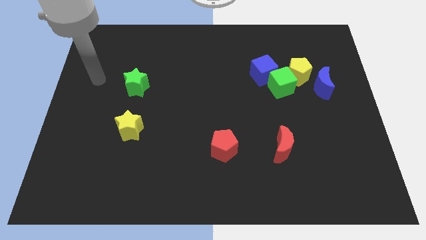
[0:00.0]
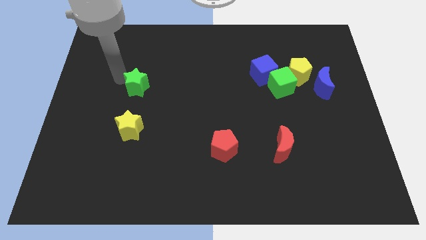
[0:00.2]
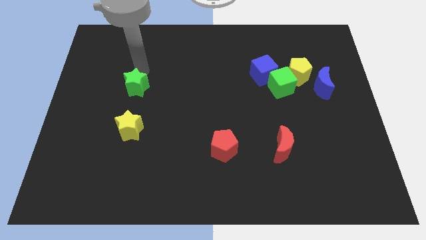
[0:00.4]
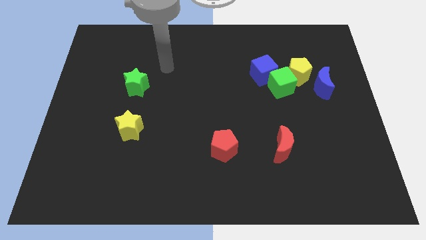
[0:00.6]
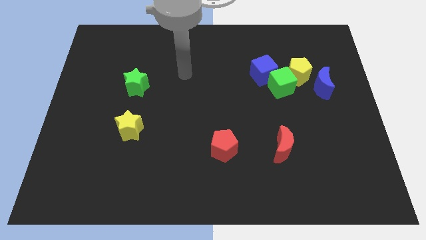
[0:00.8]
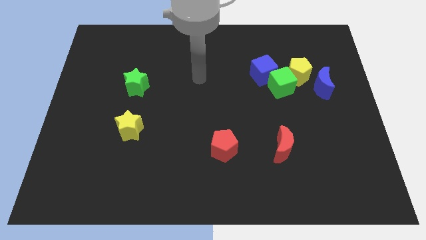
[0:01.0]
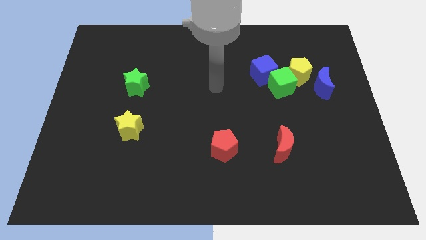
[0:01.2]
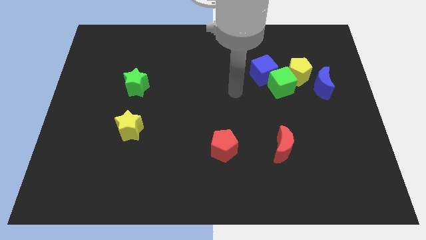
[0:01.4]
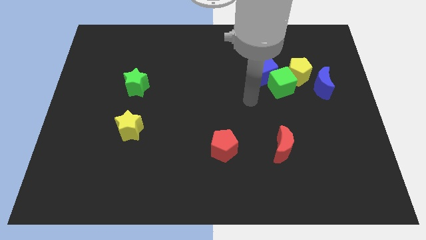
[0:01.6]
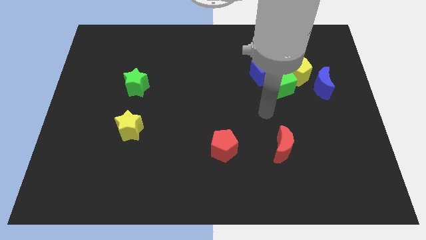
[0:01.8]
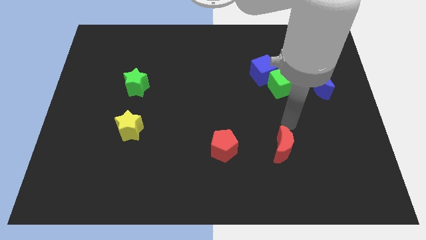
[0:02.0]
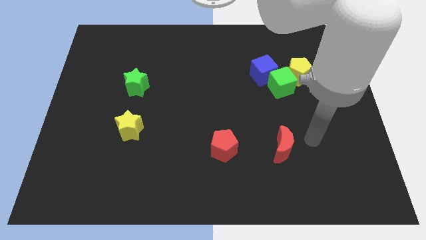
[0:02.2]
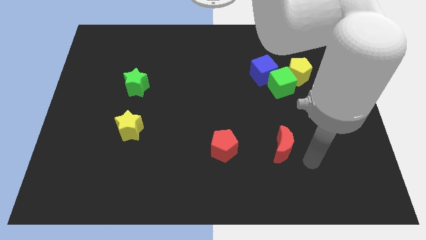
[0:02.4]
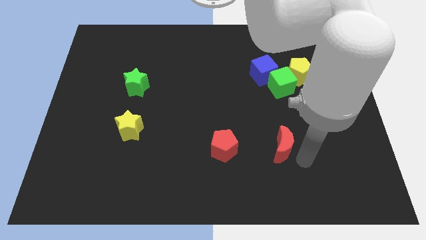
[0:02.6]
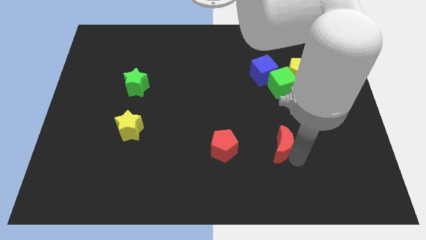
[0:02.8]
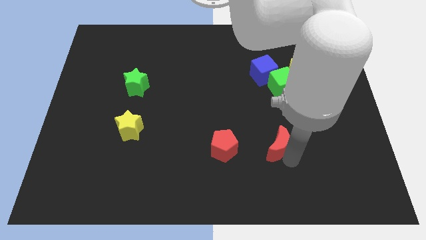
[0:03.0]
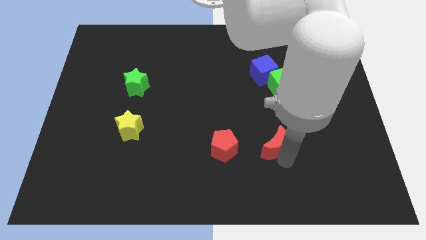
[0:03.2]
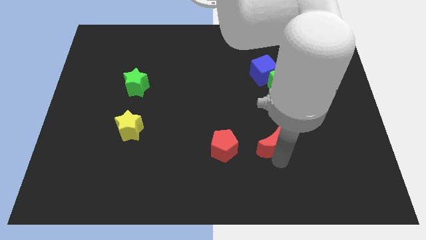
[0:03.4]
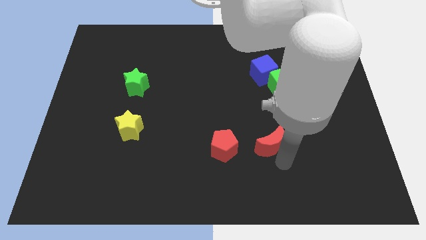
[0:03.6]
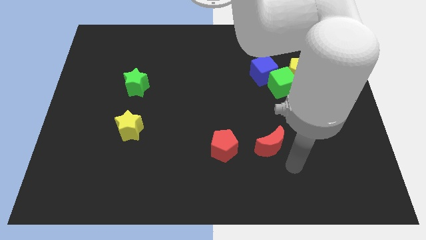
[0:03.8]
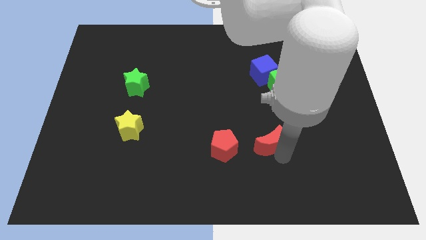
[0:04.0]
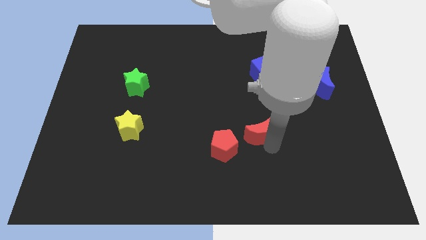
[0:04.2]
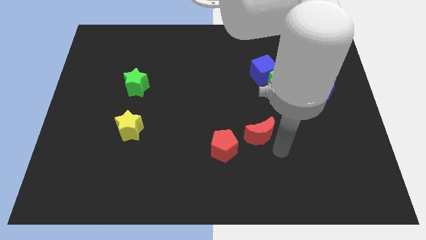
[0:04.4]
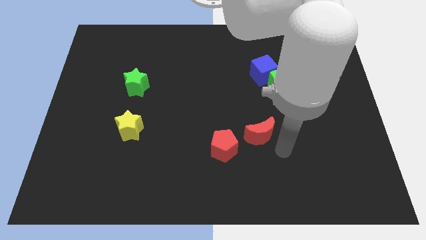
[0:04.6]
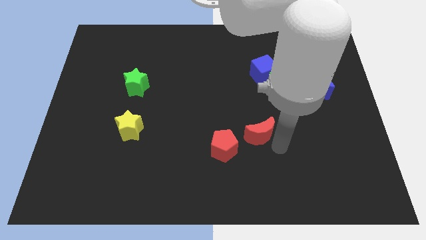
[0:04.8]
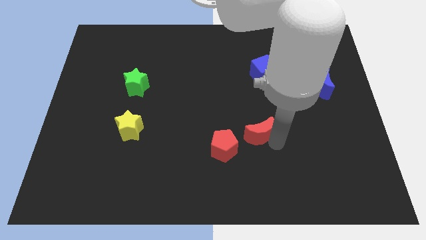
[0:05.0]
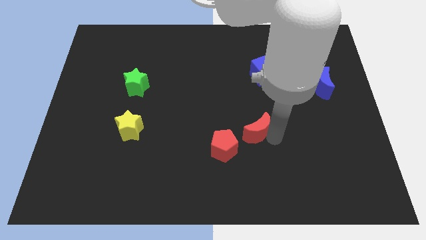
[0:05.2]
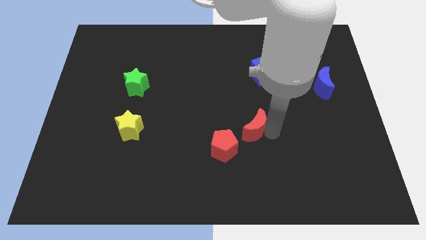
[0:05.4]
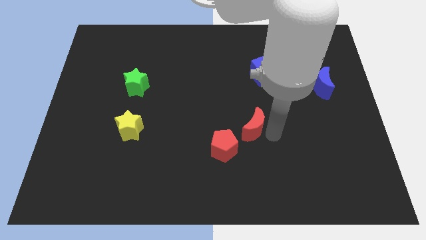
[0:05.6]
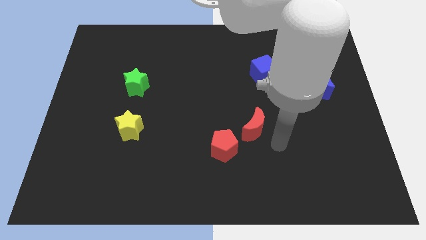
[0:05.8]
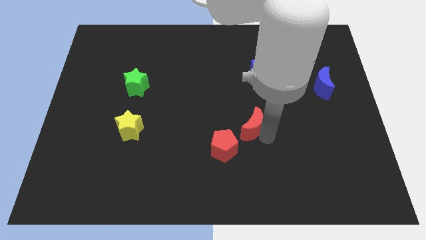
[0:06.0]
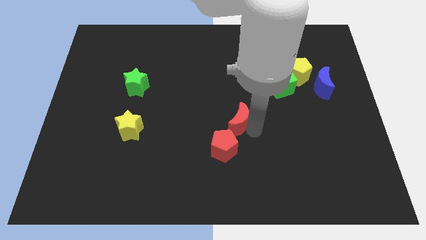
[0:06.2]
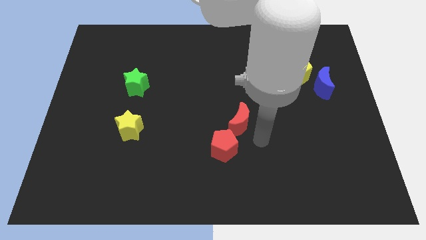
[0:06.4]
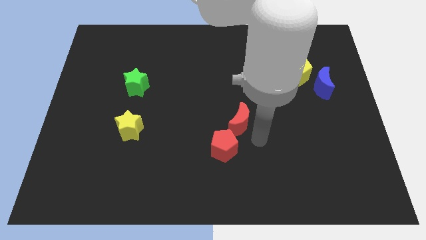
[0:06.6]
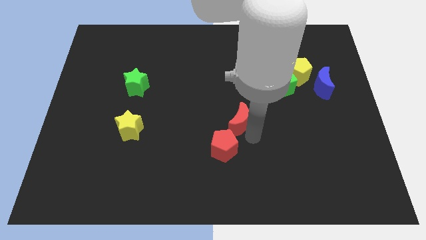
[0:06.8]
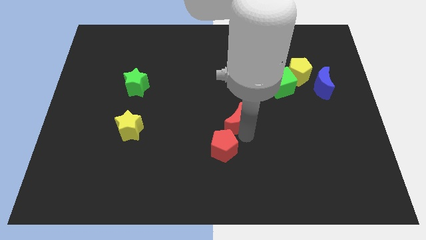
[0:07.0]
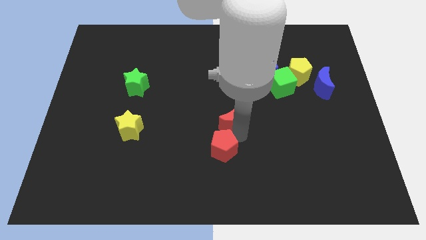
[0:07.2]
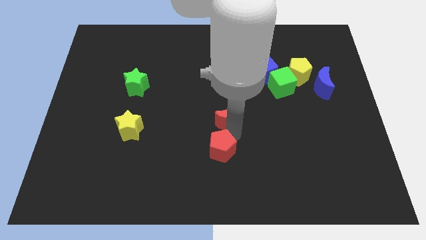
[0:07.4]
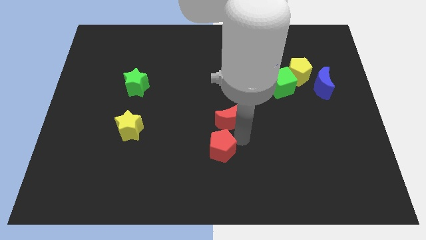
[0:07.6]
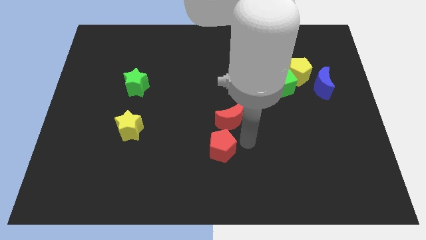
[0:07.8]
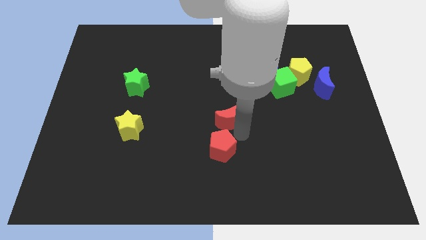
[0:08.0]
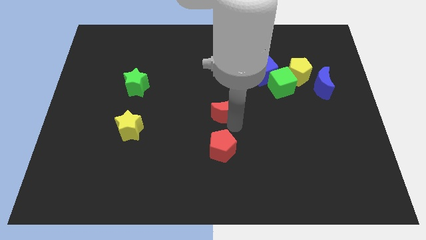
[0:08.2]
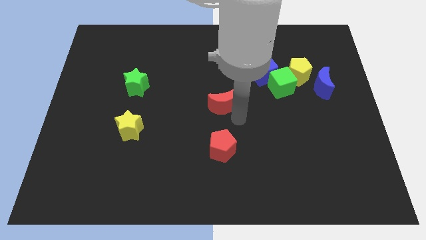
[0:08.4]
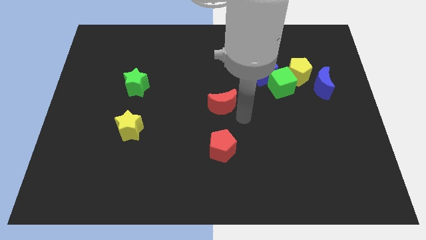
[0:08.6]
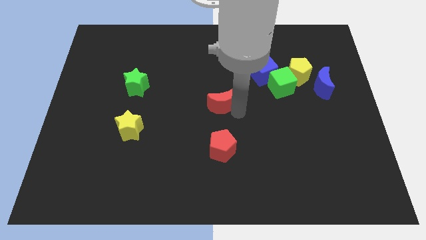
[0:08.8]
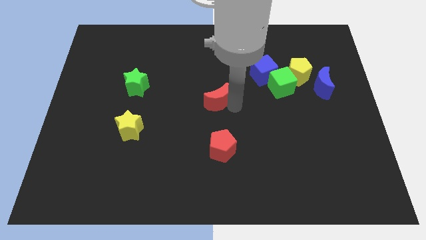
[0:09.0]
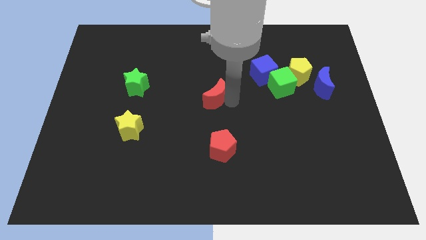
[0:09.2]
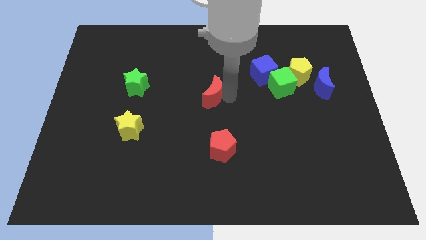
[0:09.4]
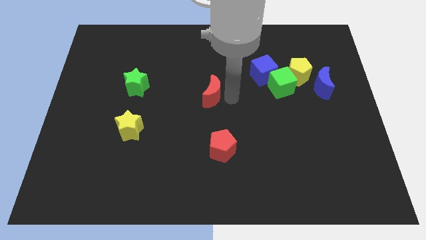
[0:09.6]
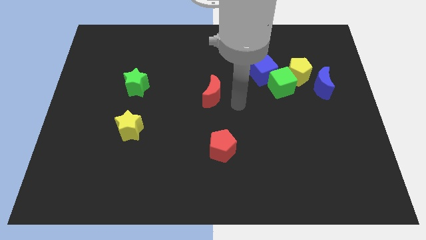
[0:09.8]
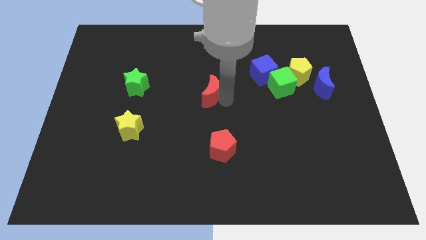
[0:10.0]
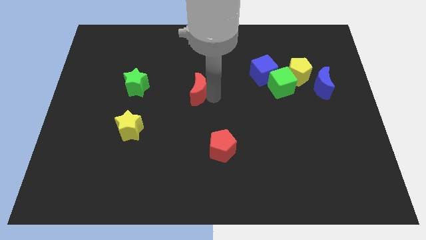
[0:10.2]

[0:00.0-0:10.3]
push the red moon to the right of the green star

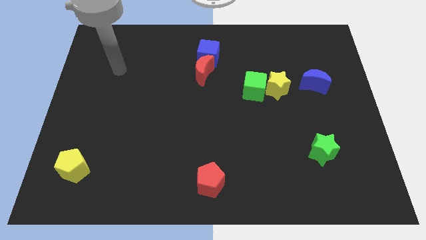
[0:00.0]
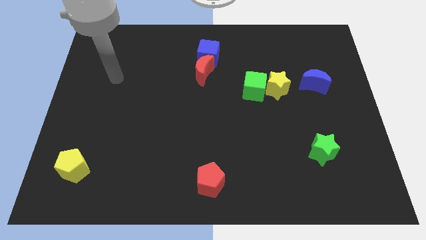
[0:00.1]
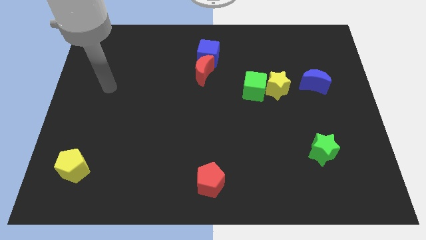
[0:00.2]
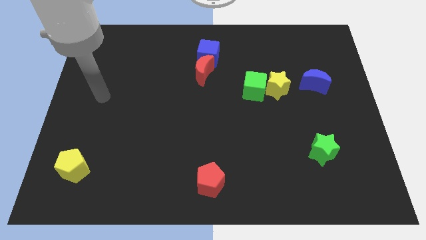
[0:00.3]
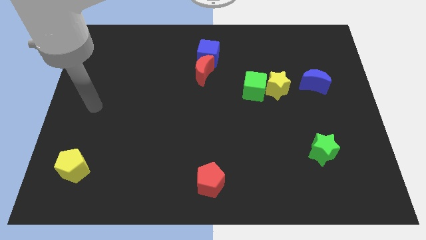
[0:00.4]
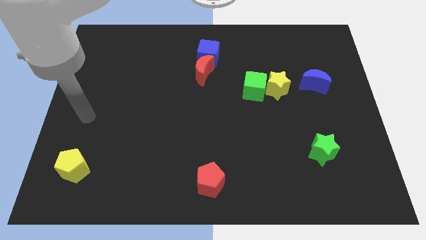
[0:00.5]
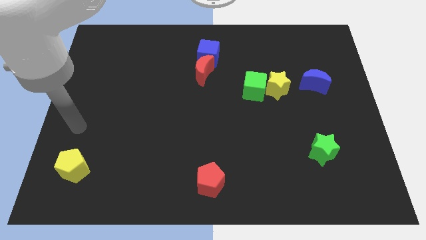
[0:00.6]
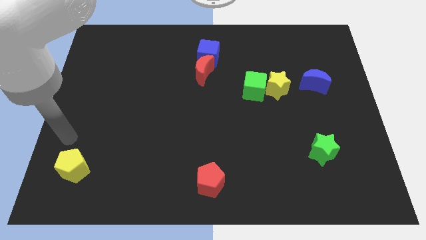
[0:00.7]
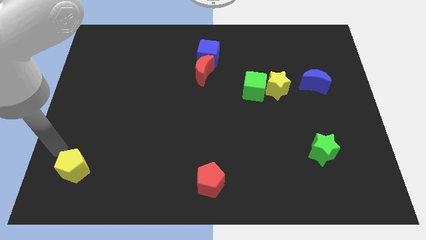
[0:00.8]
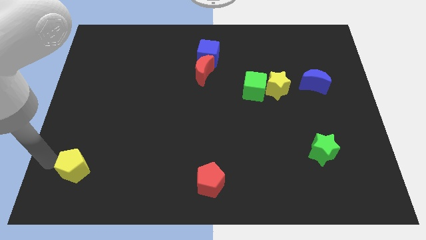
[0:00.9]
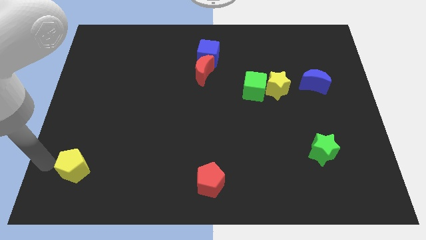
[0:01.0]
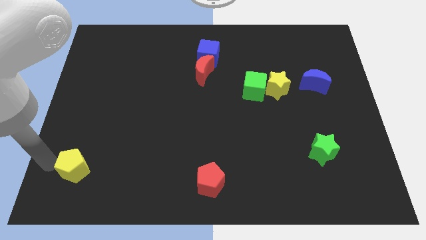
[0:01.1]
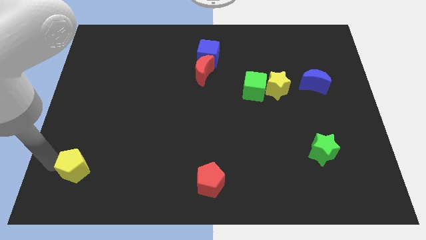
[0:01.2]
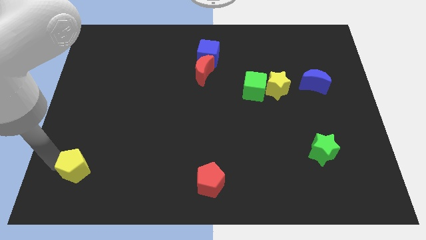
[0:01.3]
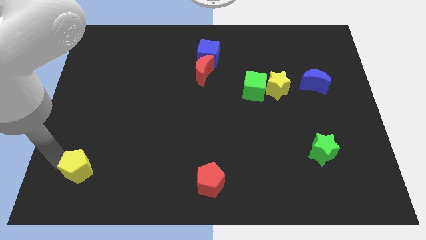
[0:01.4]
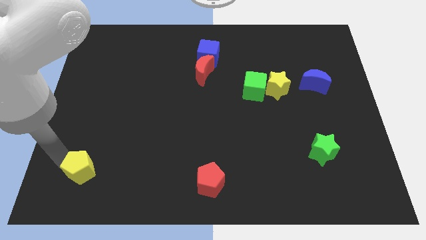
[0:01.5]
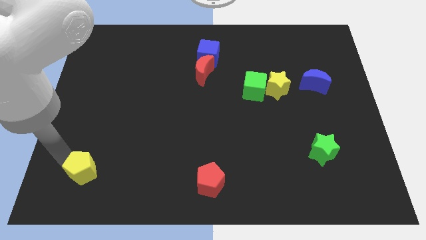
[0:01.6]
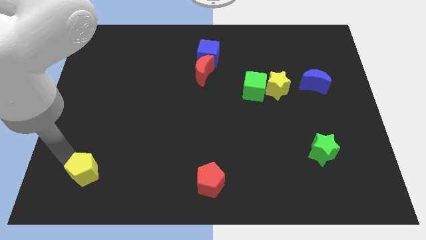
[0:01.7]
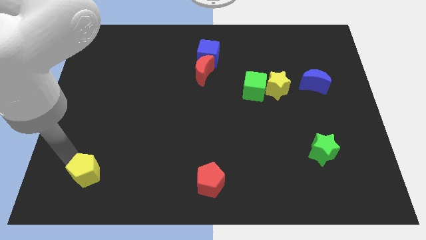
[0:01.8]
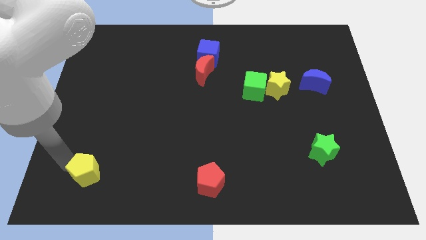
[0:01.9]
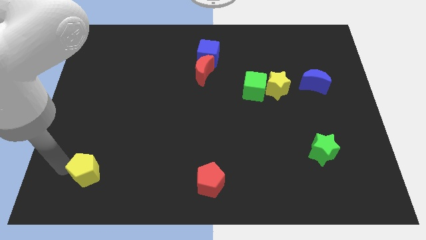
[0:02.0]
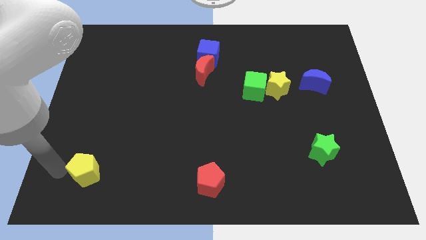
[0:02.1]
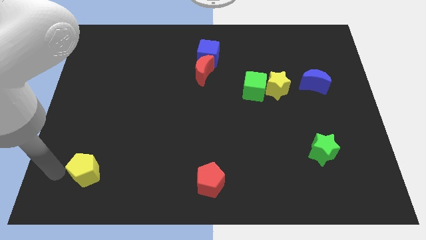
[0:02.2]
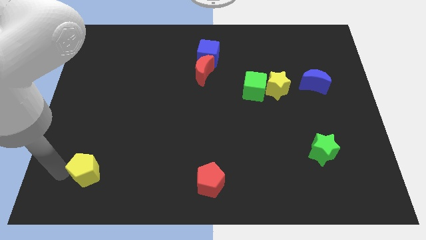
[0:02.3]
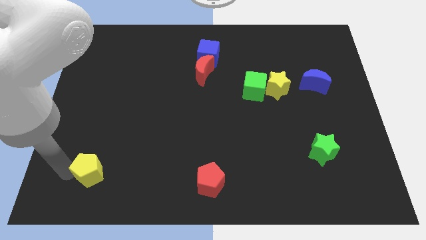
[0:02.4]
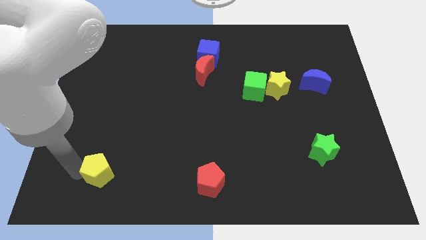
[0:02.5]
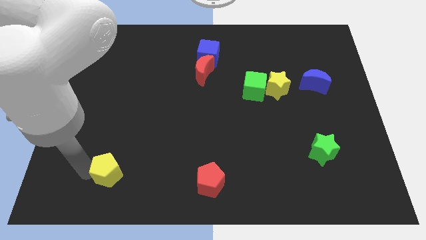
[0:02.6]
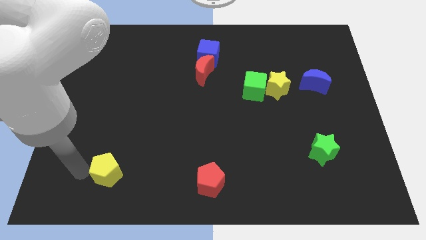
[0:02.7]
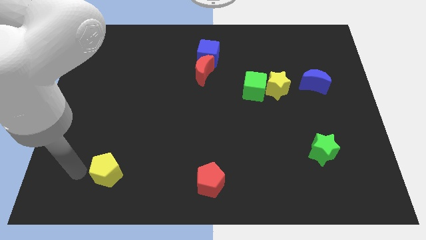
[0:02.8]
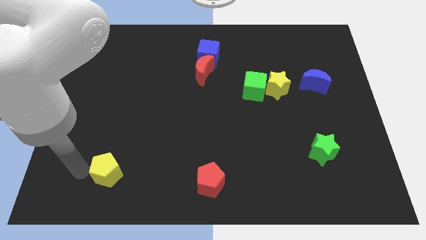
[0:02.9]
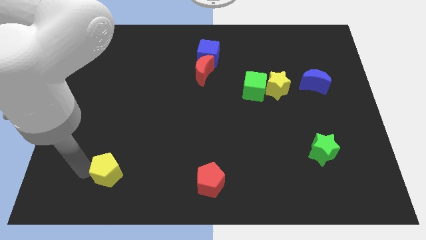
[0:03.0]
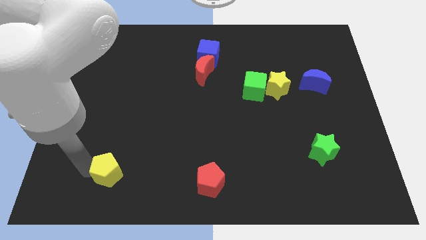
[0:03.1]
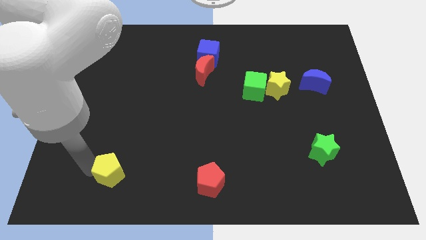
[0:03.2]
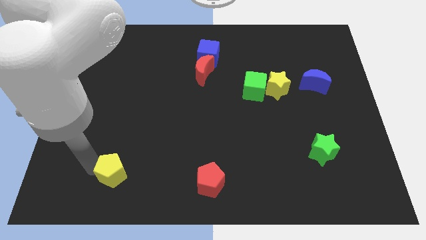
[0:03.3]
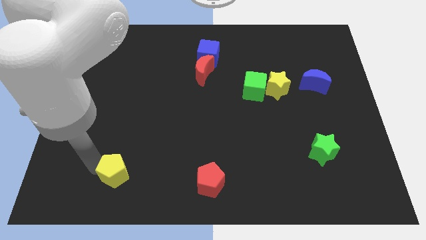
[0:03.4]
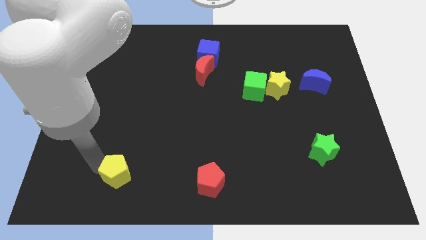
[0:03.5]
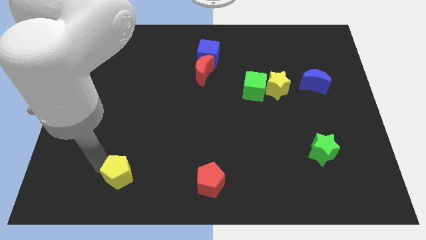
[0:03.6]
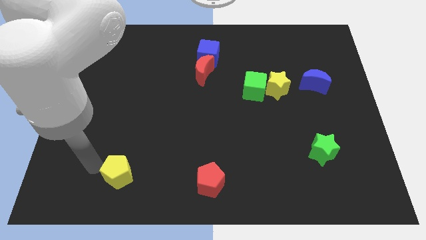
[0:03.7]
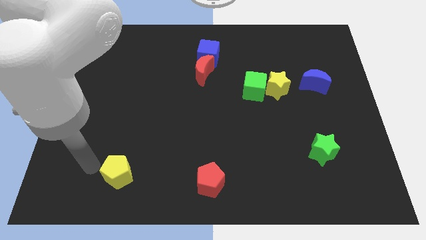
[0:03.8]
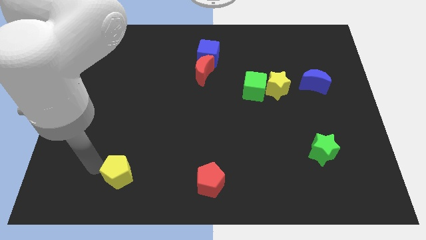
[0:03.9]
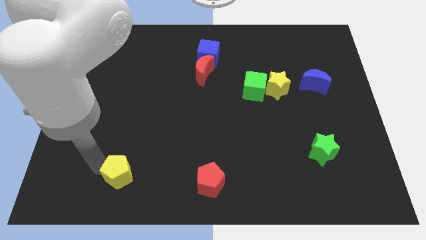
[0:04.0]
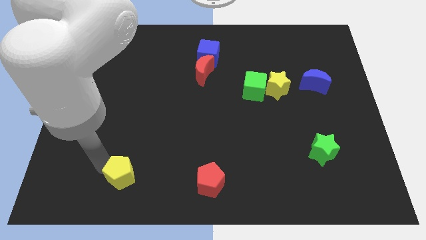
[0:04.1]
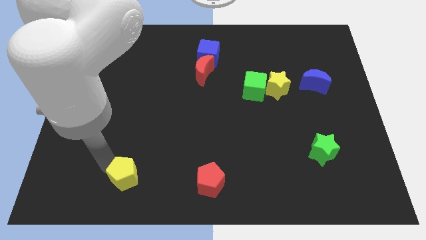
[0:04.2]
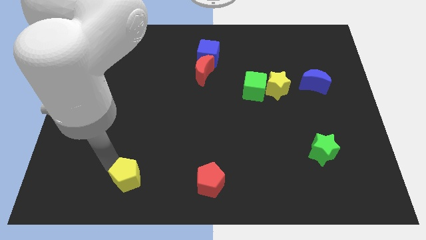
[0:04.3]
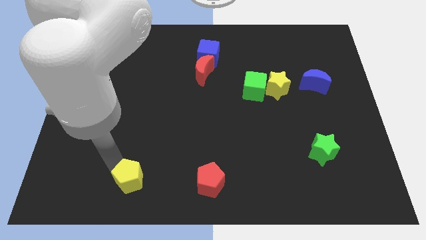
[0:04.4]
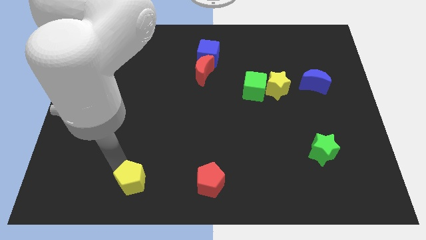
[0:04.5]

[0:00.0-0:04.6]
push the yellow pentagon to the left of the red pentagon
